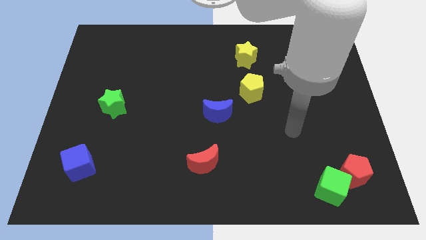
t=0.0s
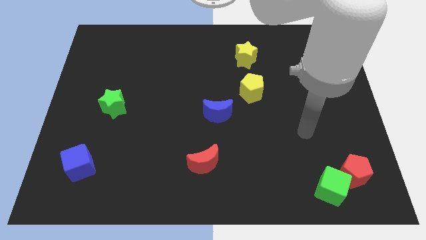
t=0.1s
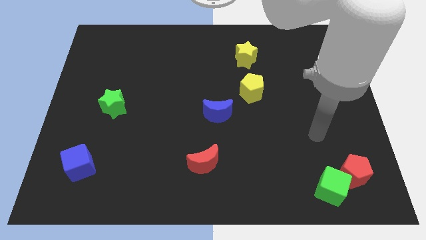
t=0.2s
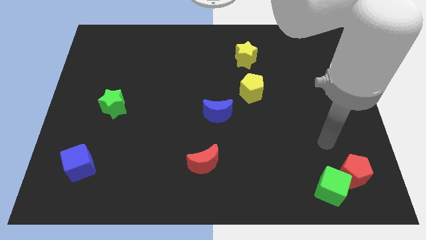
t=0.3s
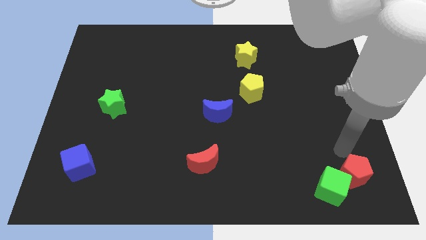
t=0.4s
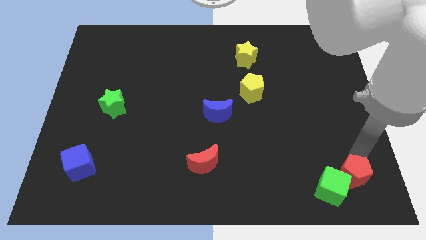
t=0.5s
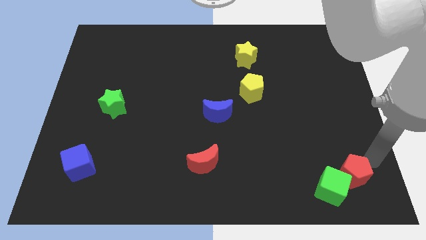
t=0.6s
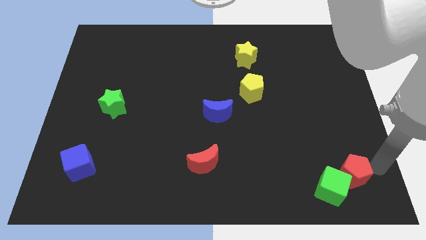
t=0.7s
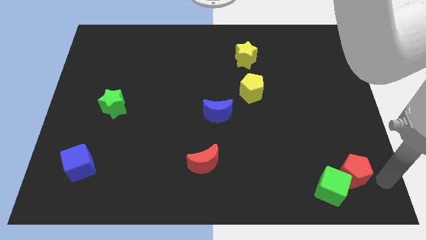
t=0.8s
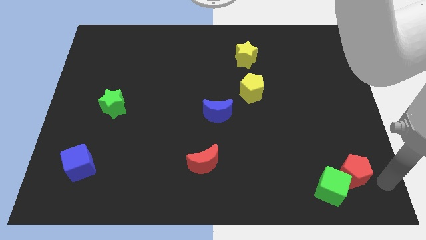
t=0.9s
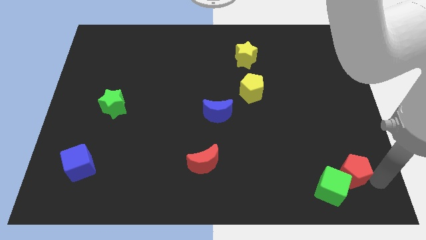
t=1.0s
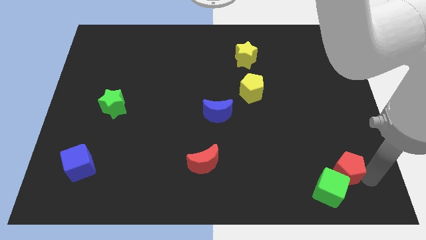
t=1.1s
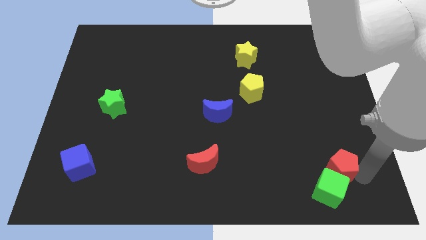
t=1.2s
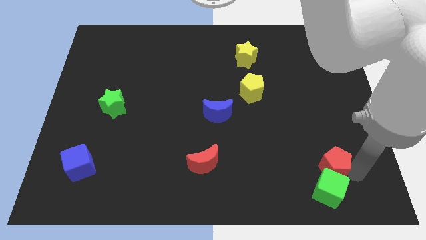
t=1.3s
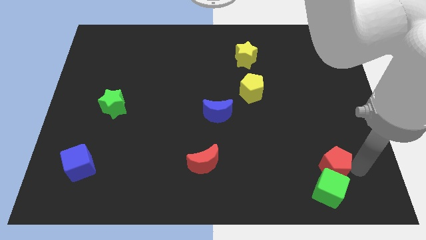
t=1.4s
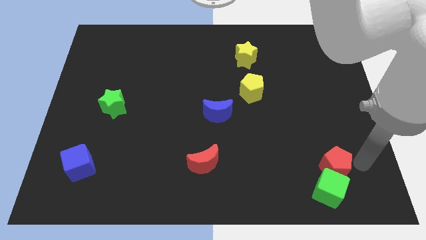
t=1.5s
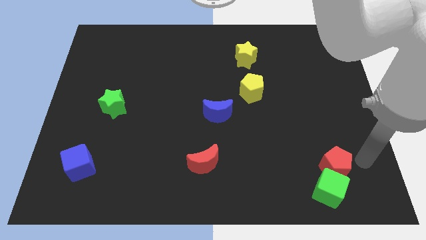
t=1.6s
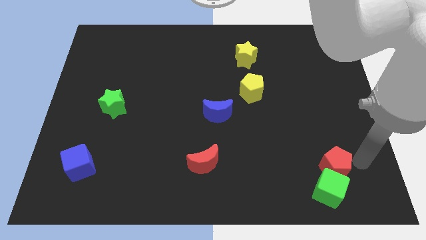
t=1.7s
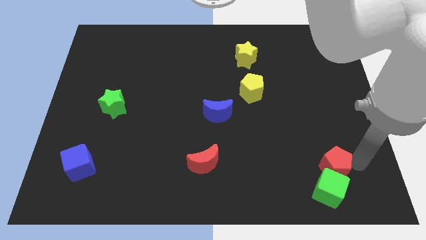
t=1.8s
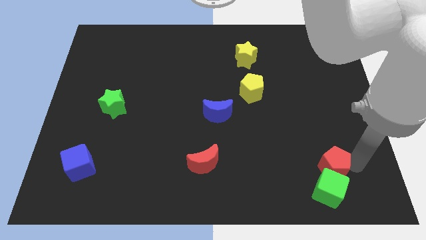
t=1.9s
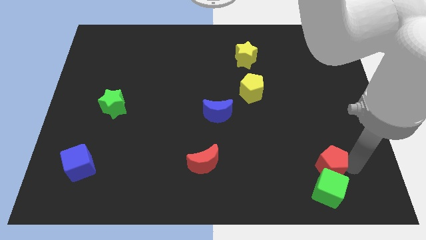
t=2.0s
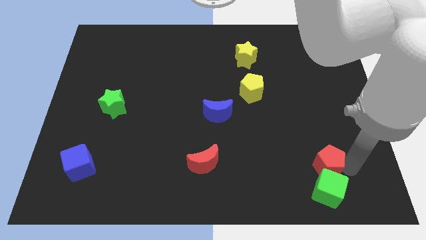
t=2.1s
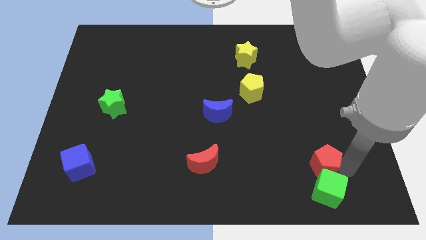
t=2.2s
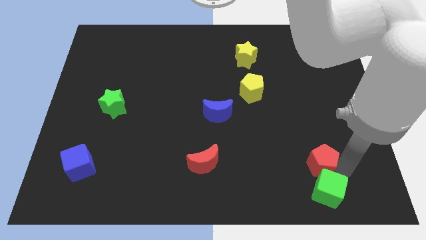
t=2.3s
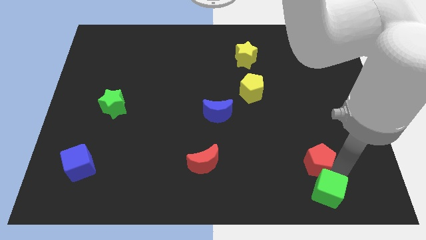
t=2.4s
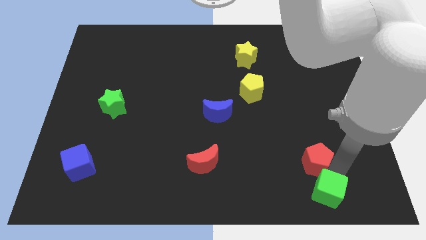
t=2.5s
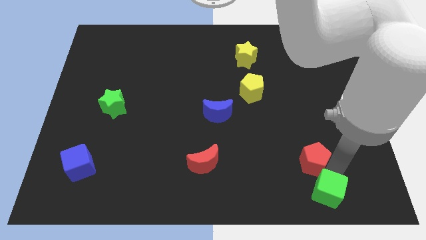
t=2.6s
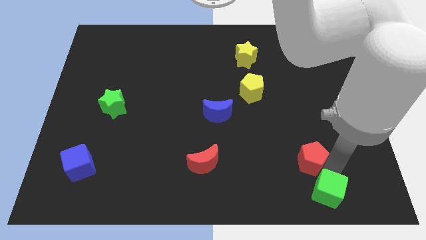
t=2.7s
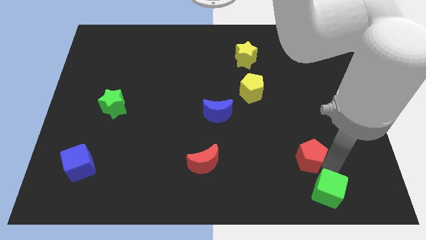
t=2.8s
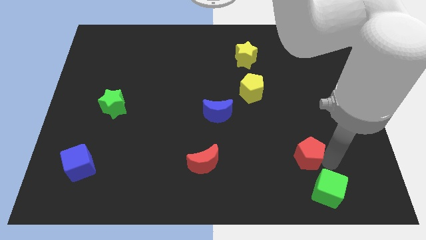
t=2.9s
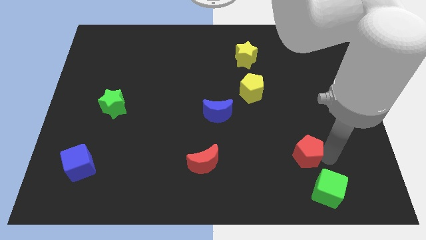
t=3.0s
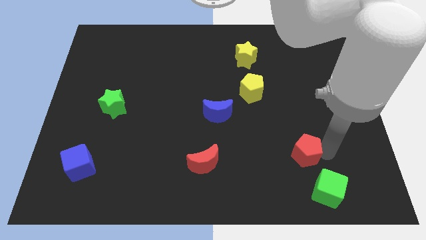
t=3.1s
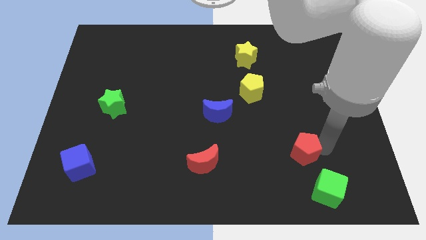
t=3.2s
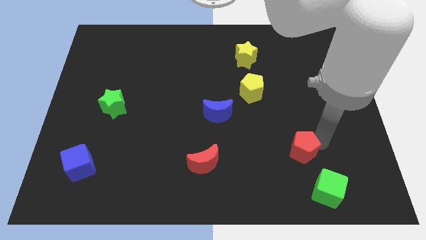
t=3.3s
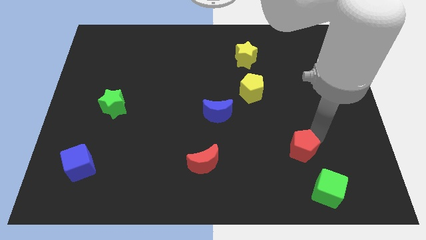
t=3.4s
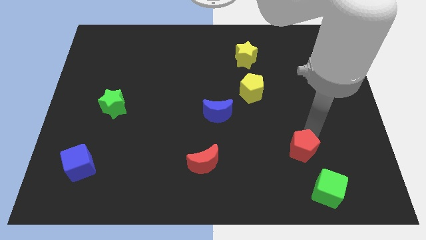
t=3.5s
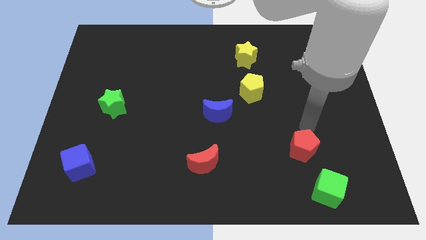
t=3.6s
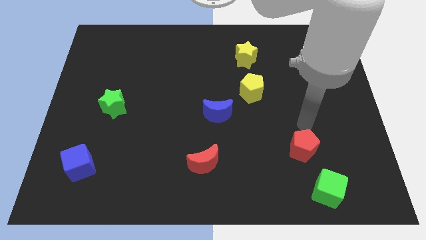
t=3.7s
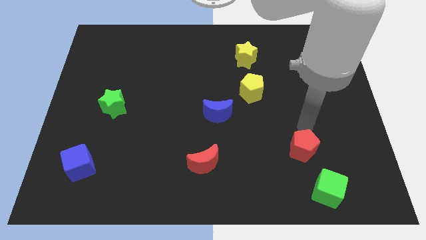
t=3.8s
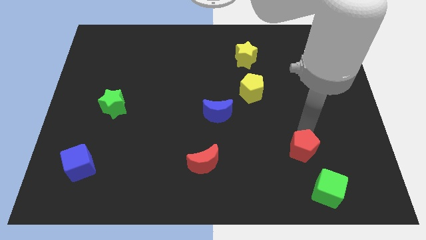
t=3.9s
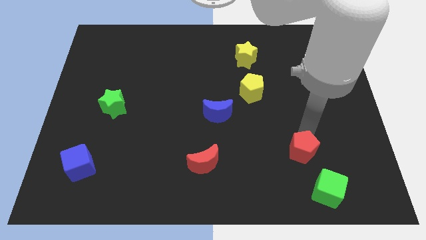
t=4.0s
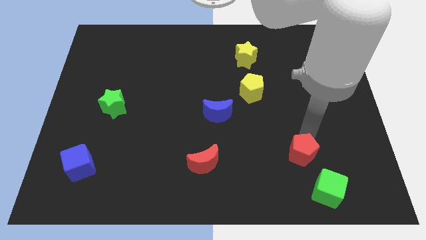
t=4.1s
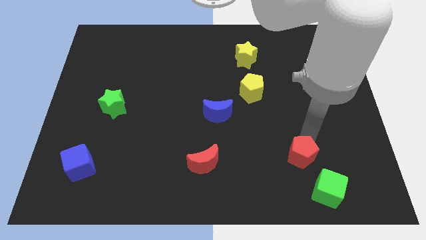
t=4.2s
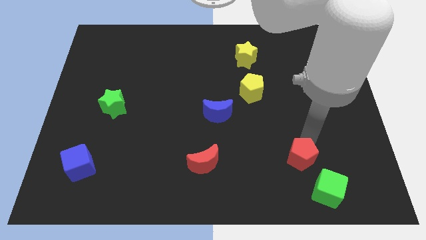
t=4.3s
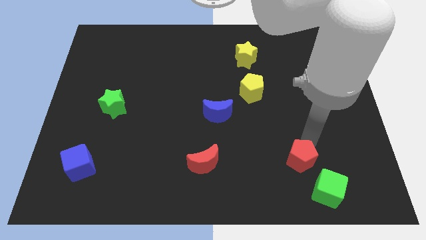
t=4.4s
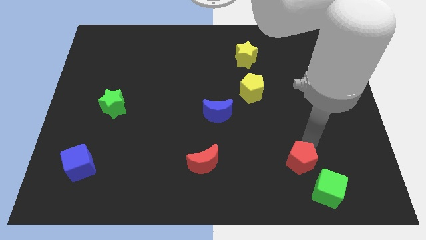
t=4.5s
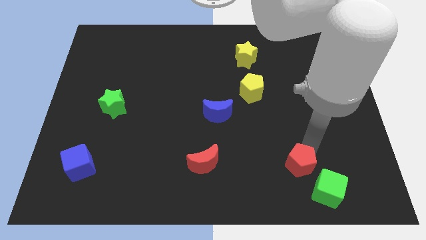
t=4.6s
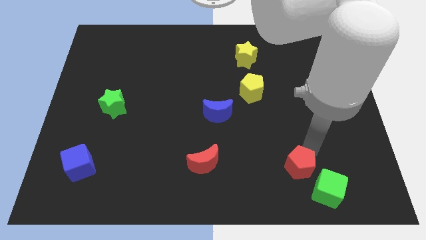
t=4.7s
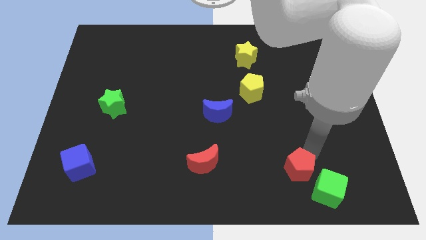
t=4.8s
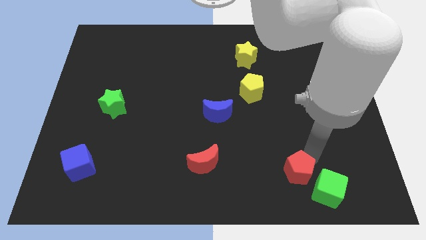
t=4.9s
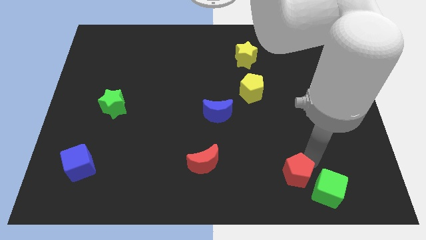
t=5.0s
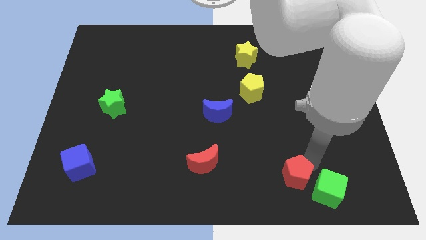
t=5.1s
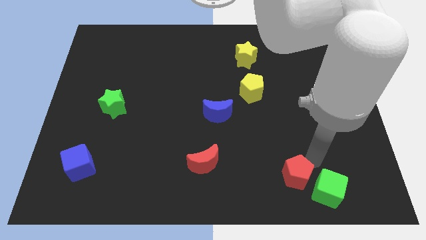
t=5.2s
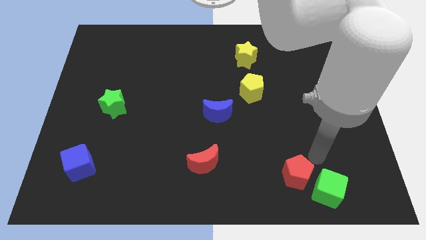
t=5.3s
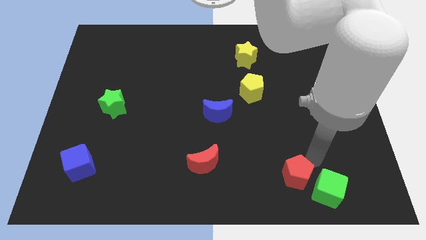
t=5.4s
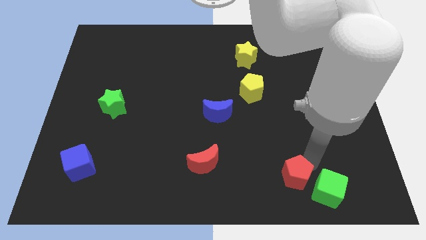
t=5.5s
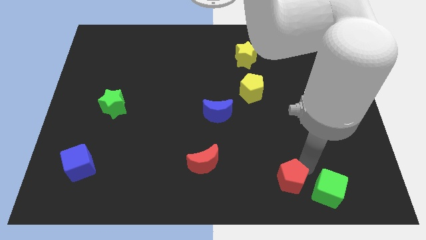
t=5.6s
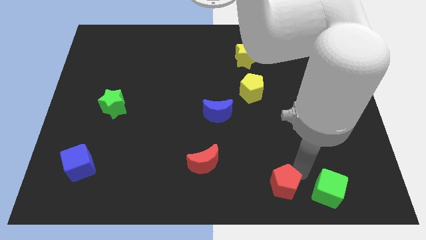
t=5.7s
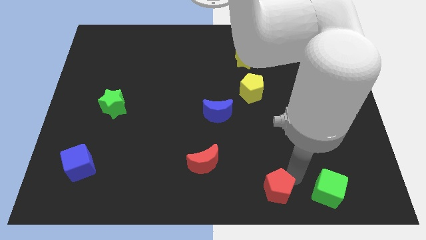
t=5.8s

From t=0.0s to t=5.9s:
slide the red pentagon to the bottom
